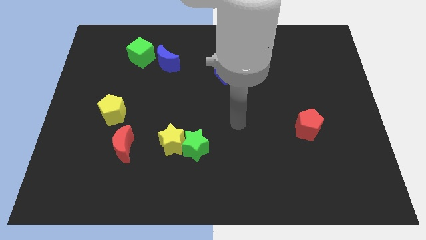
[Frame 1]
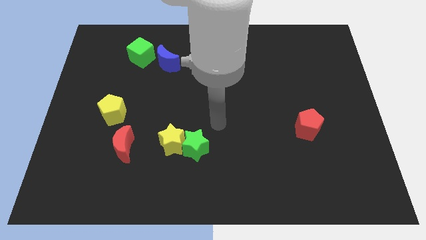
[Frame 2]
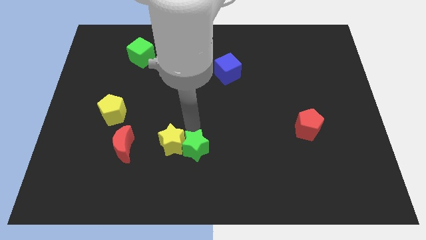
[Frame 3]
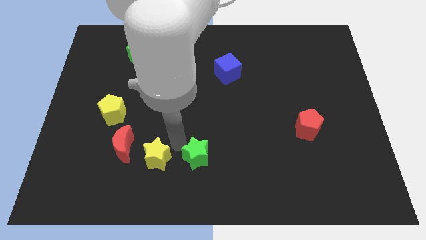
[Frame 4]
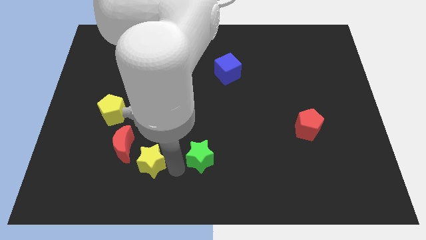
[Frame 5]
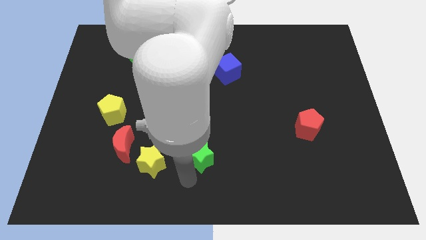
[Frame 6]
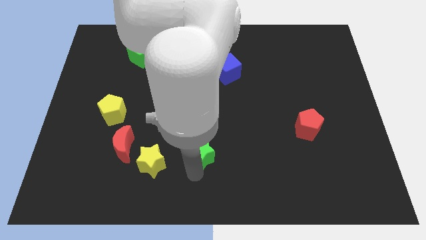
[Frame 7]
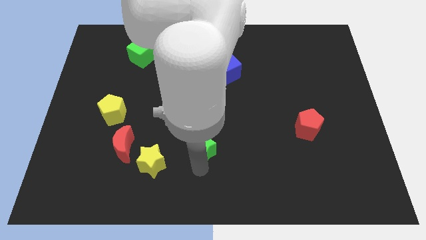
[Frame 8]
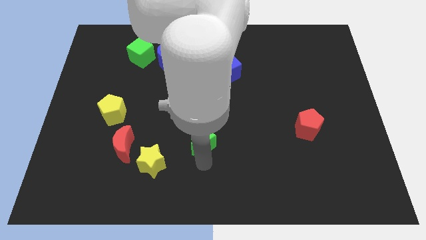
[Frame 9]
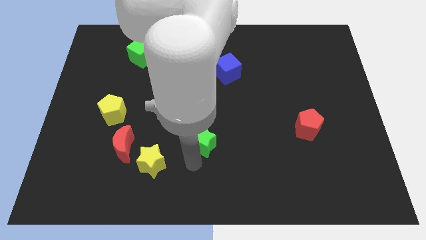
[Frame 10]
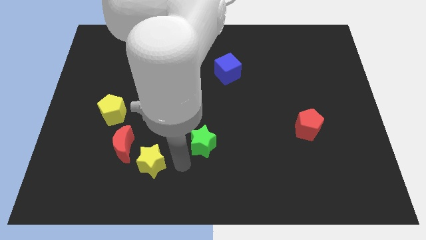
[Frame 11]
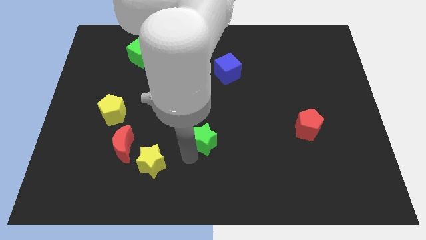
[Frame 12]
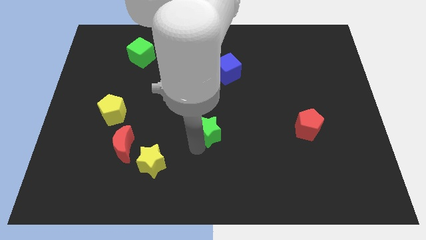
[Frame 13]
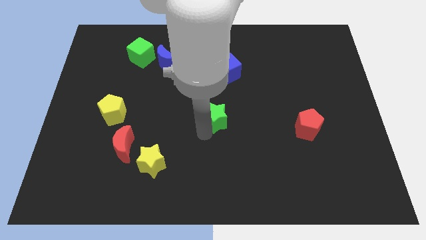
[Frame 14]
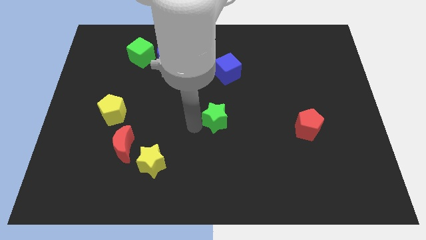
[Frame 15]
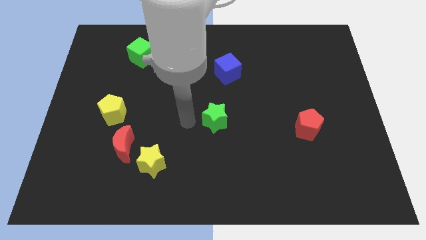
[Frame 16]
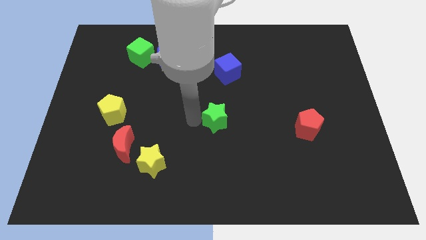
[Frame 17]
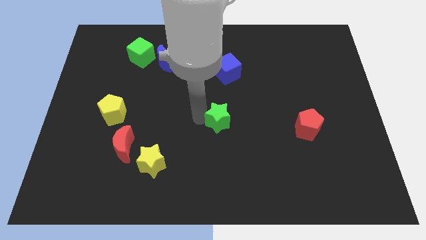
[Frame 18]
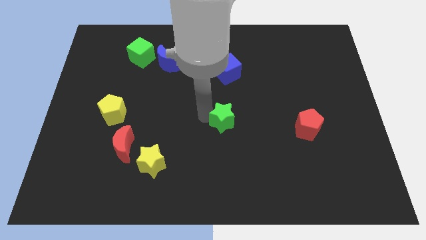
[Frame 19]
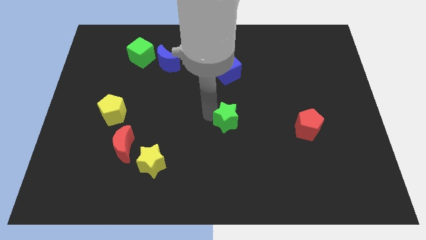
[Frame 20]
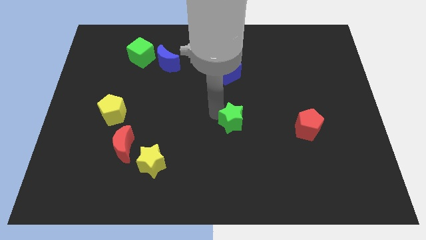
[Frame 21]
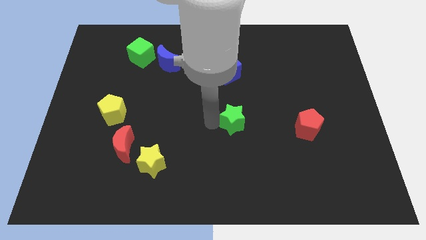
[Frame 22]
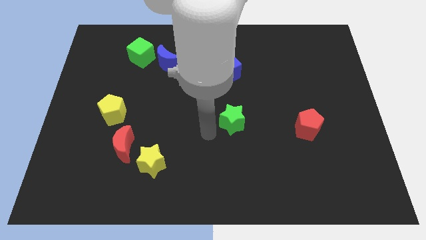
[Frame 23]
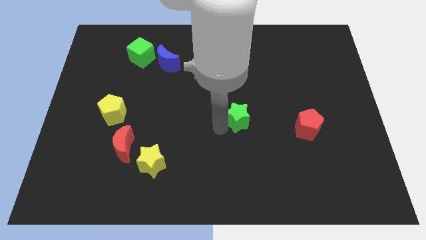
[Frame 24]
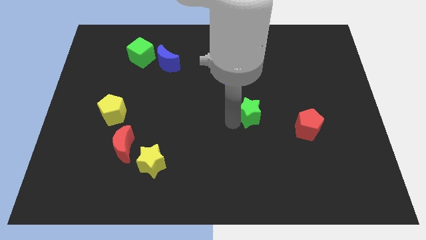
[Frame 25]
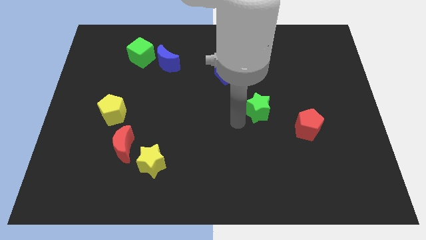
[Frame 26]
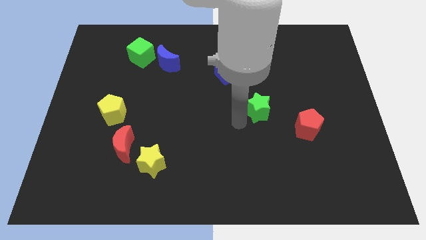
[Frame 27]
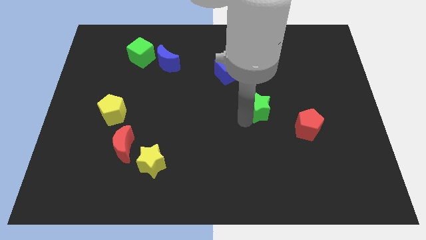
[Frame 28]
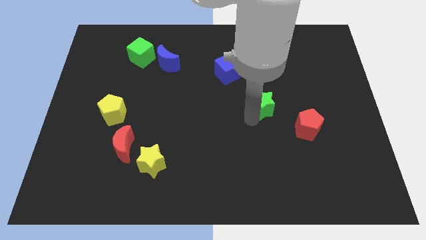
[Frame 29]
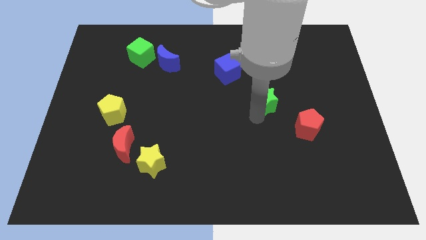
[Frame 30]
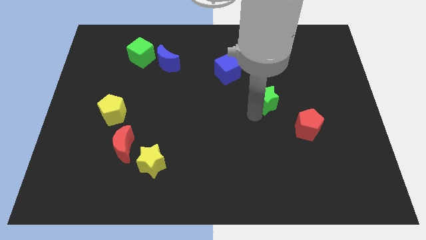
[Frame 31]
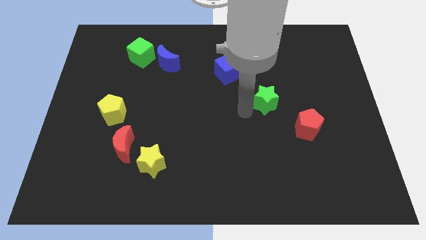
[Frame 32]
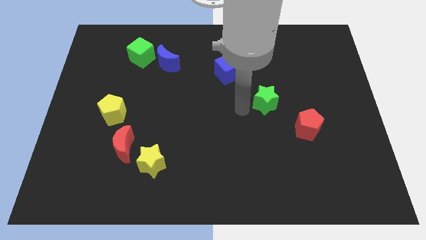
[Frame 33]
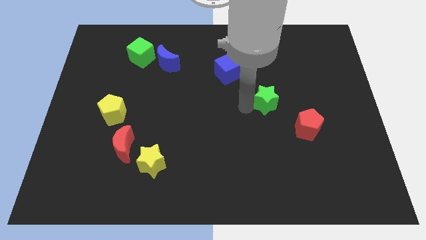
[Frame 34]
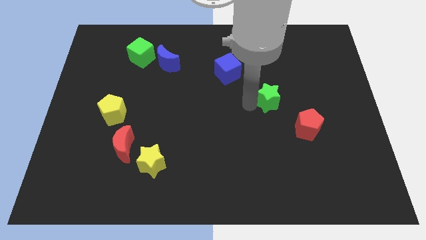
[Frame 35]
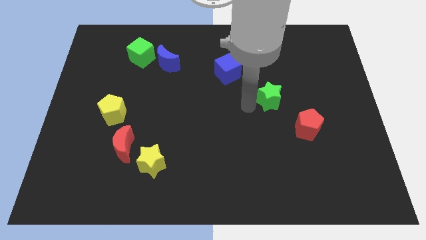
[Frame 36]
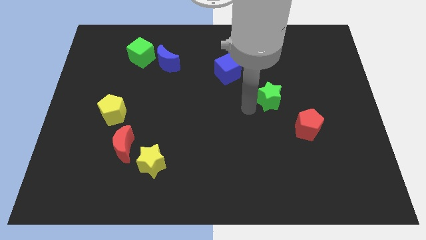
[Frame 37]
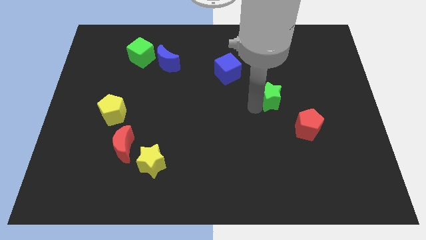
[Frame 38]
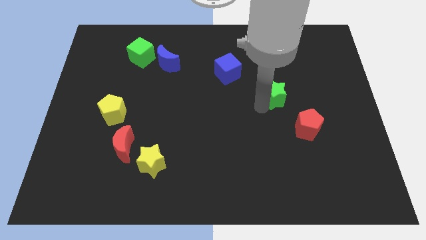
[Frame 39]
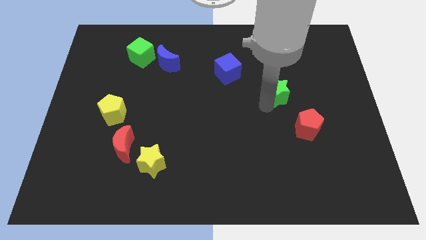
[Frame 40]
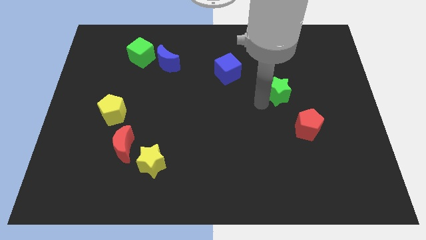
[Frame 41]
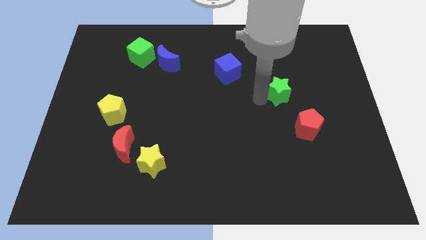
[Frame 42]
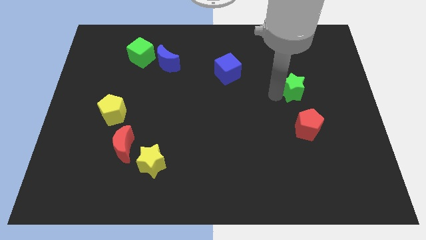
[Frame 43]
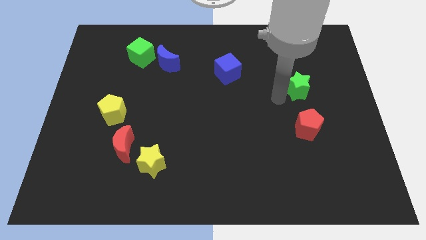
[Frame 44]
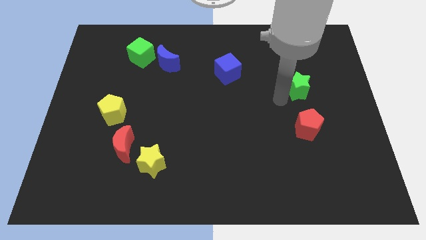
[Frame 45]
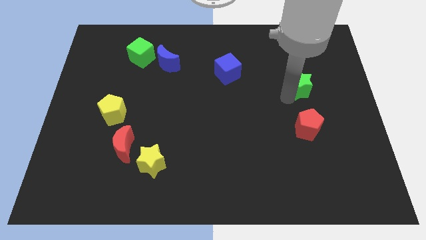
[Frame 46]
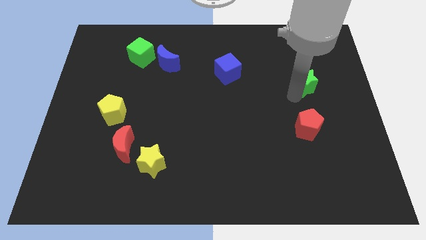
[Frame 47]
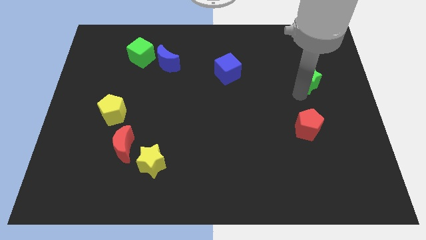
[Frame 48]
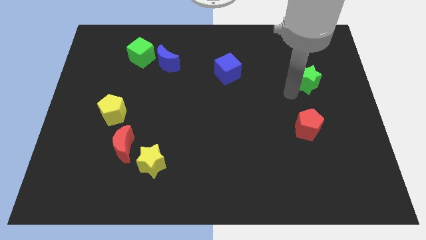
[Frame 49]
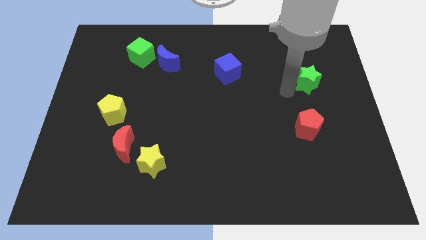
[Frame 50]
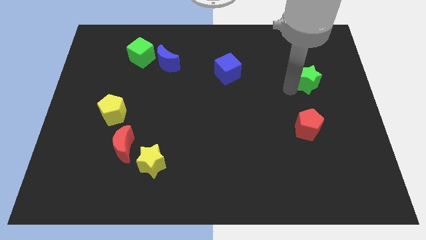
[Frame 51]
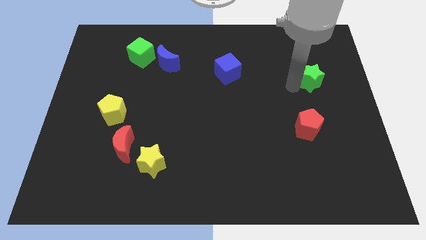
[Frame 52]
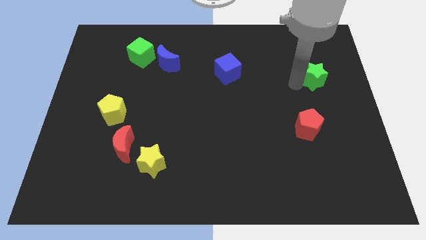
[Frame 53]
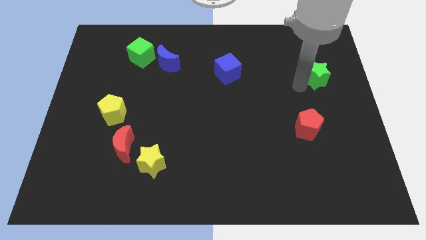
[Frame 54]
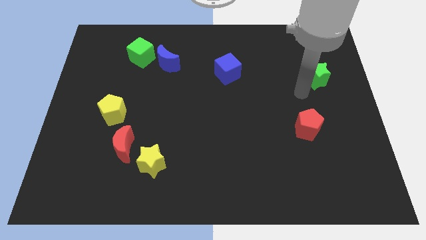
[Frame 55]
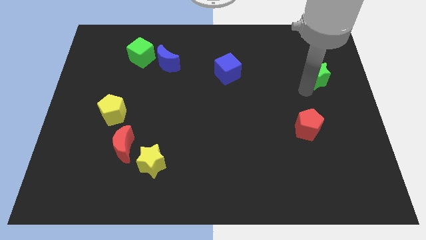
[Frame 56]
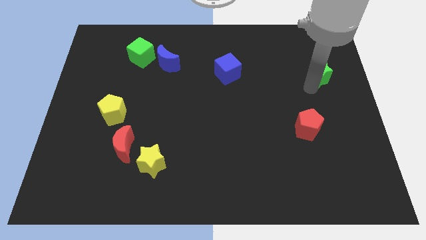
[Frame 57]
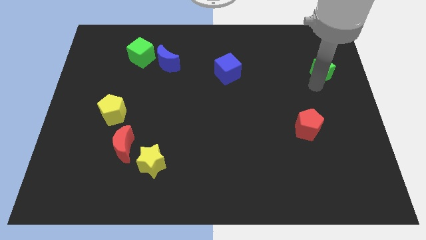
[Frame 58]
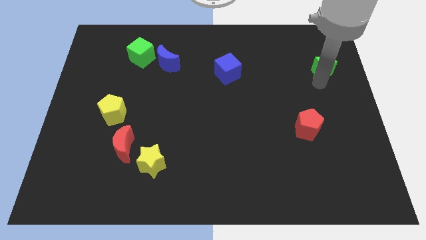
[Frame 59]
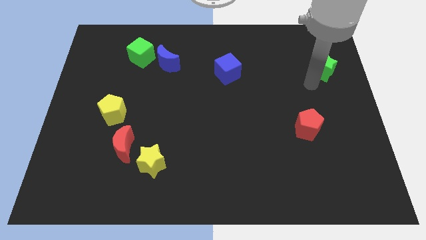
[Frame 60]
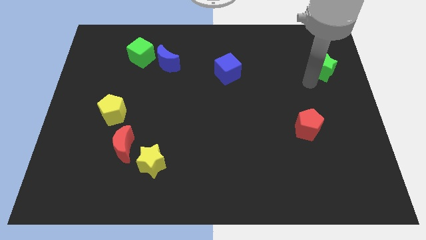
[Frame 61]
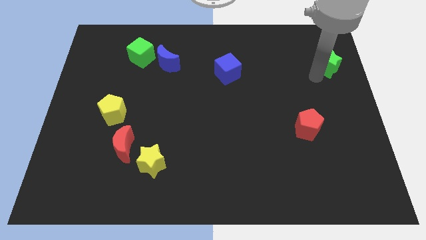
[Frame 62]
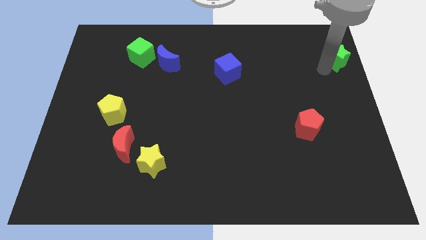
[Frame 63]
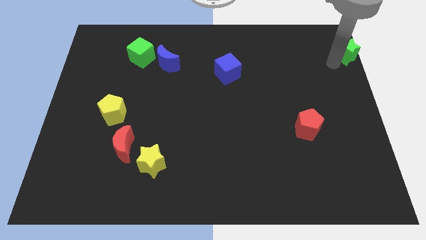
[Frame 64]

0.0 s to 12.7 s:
push the green star to the upper right corner
